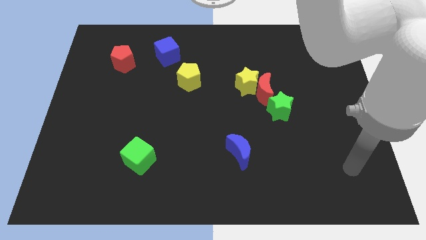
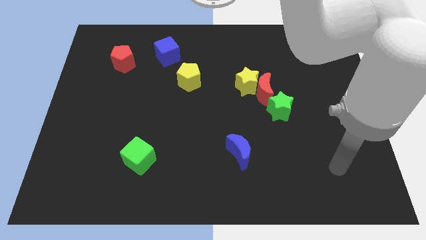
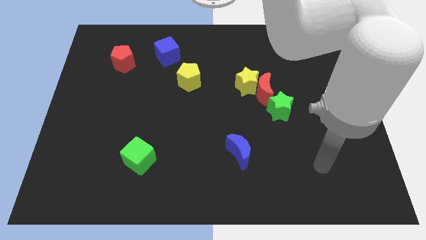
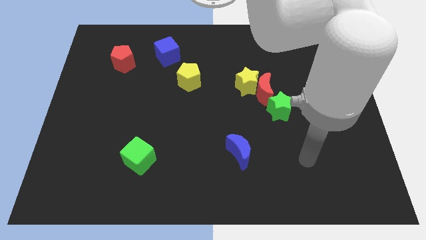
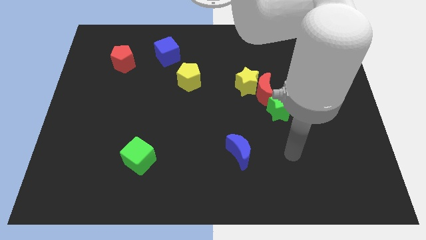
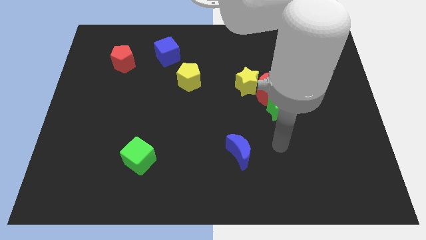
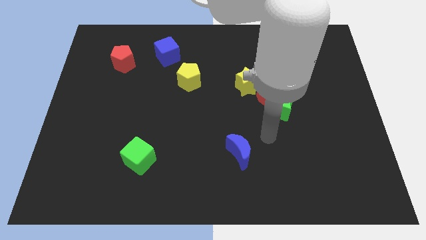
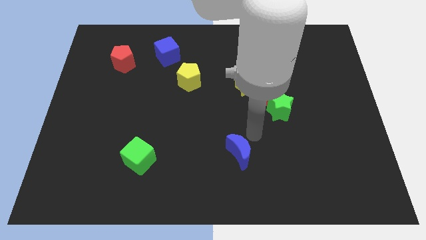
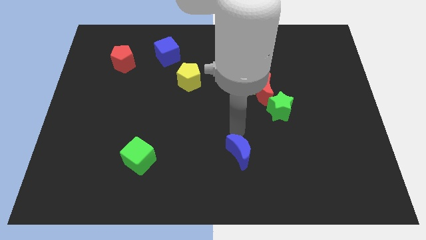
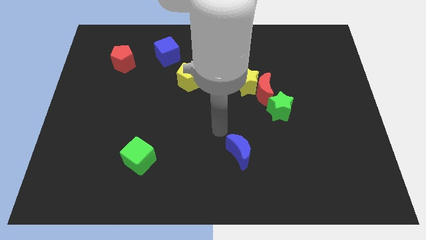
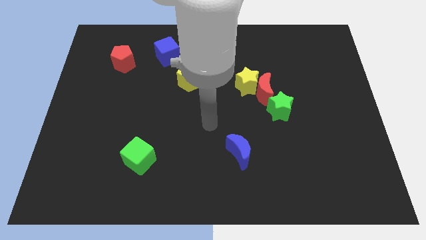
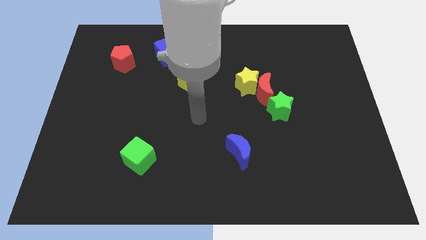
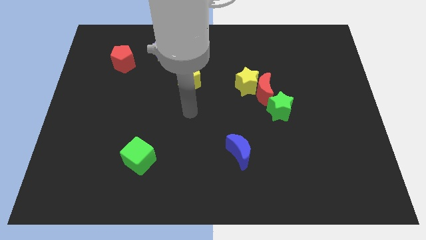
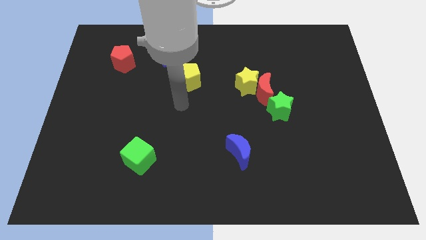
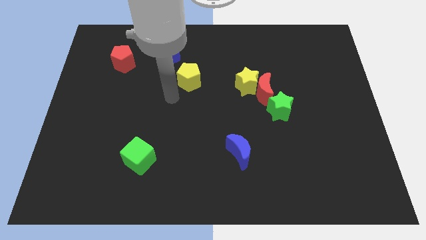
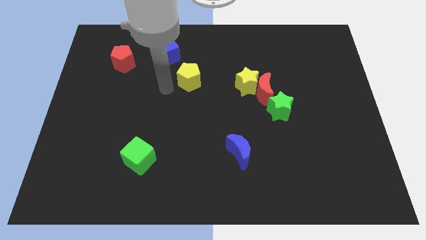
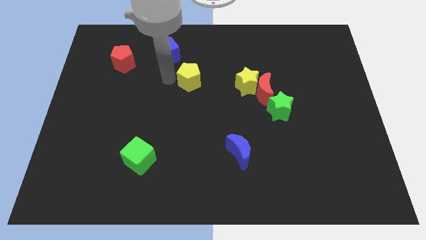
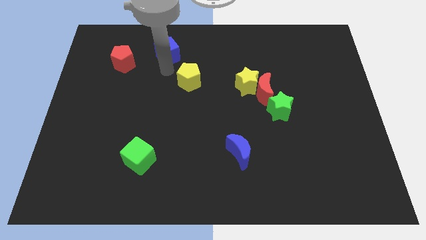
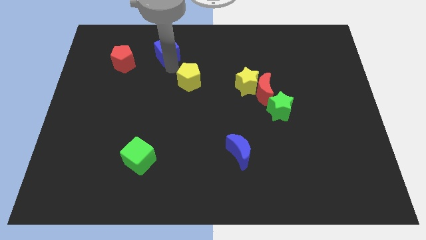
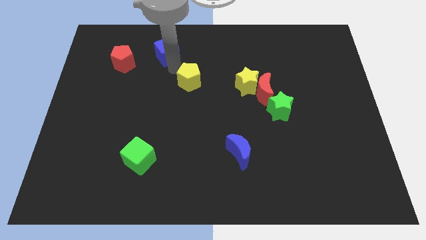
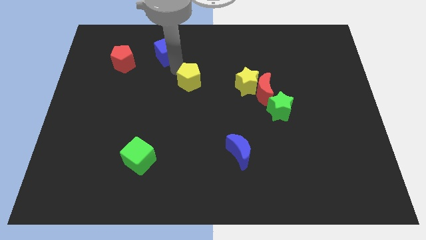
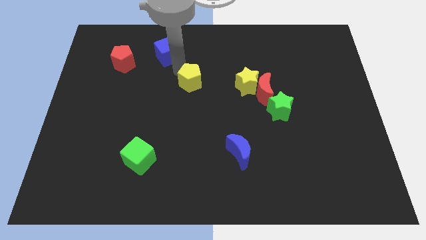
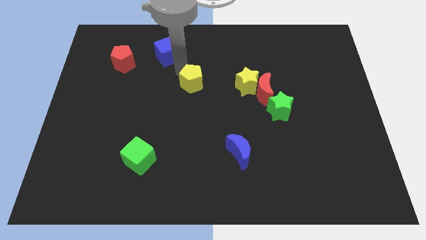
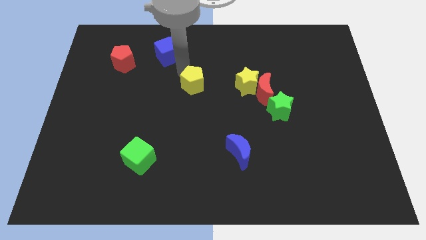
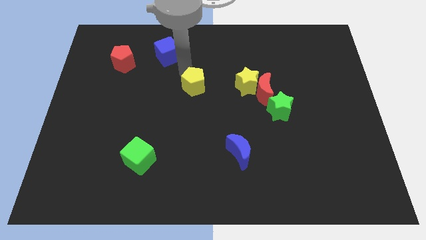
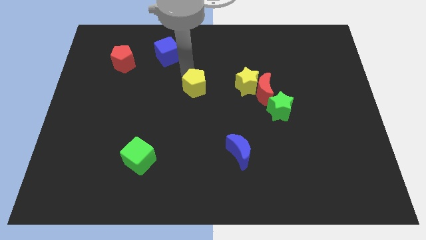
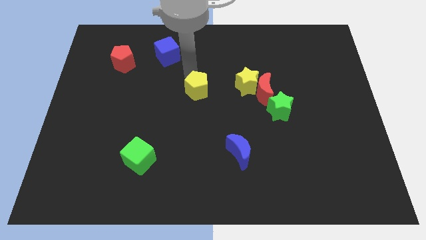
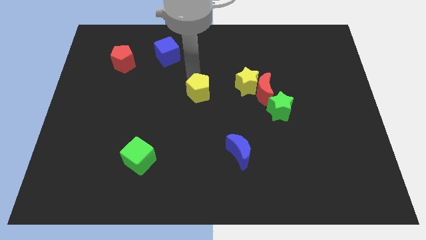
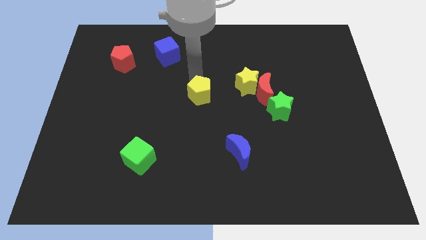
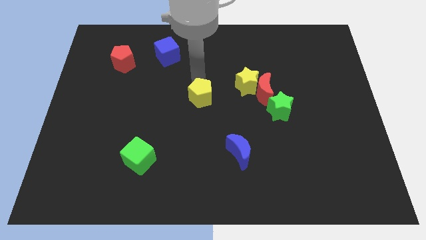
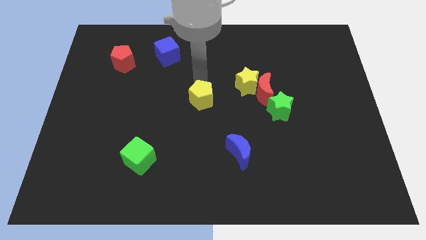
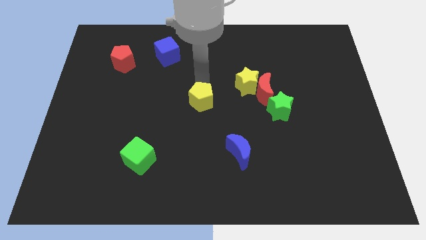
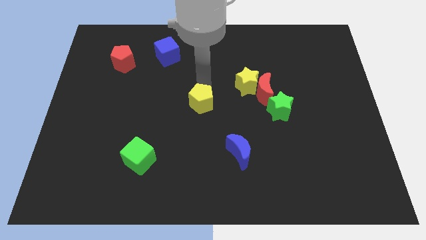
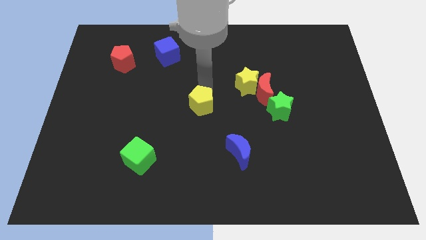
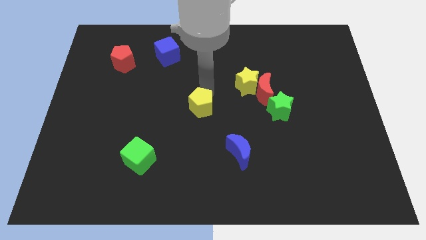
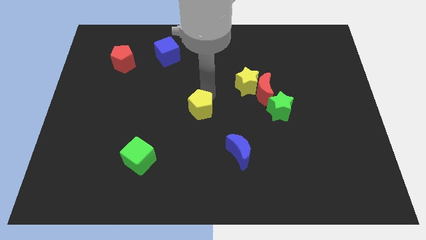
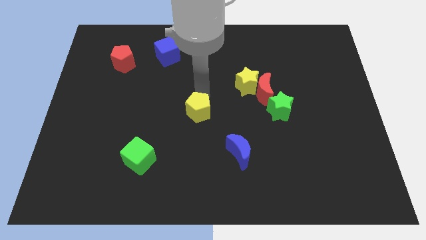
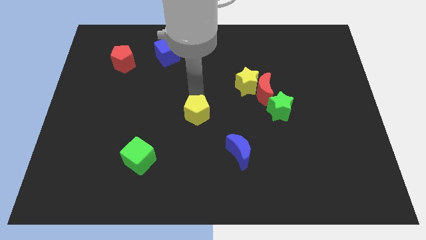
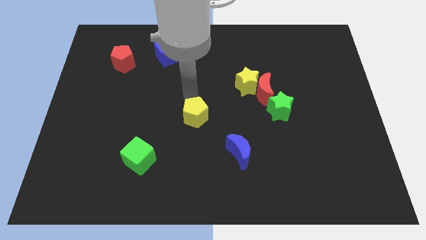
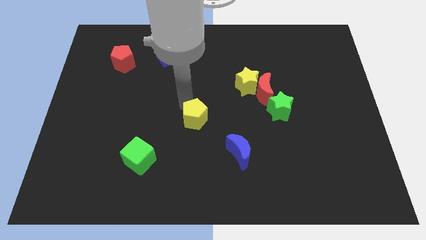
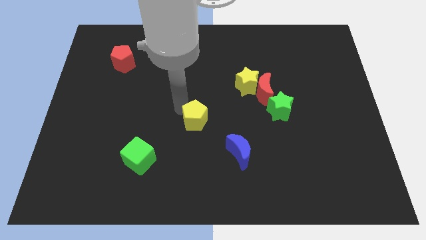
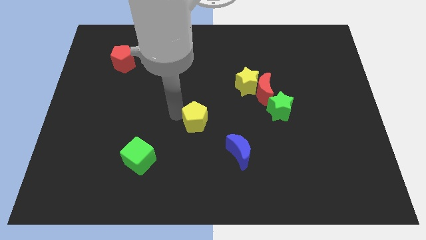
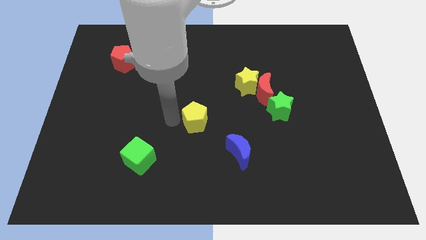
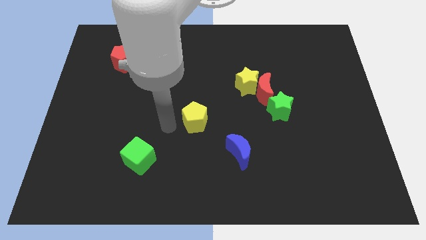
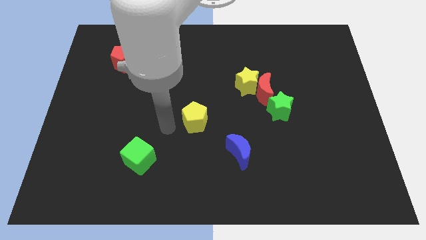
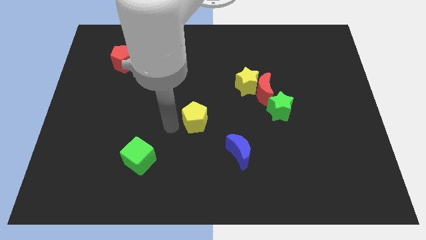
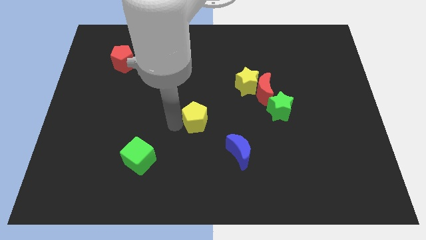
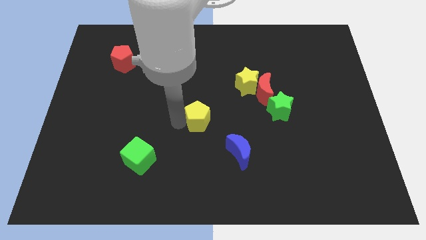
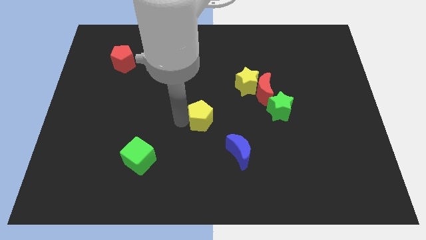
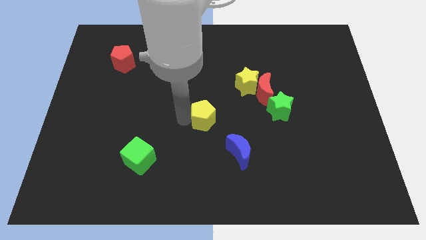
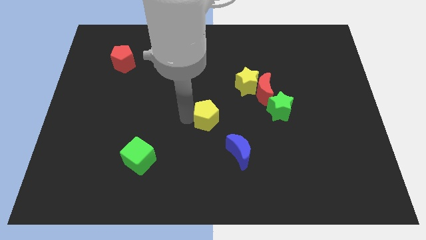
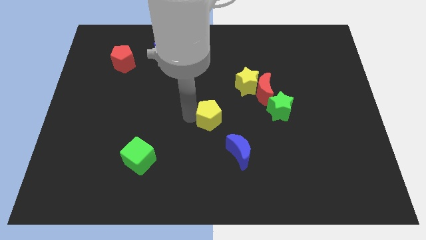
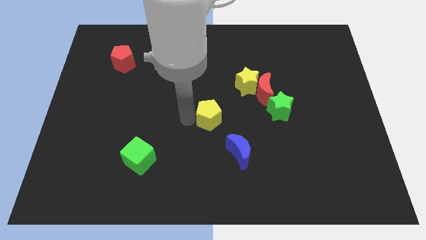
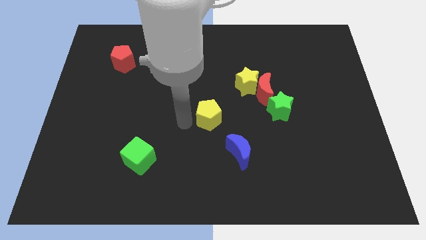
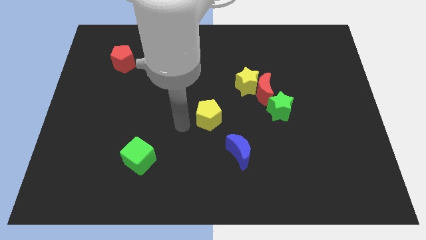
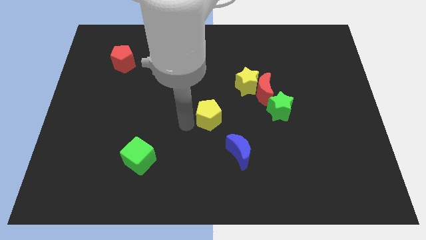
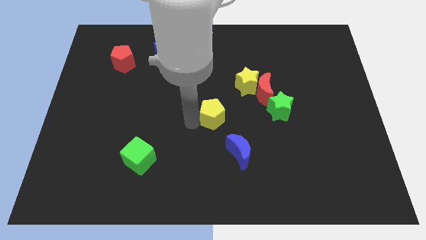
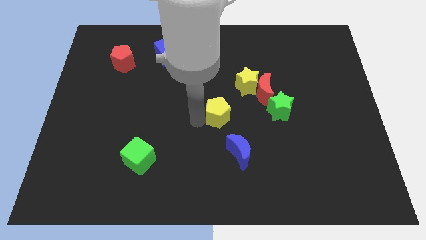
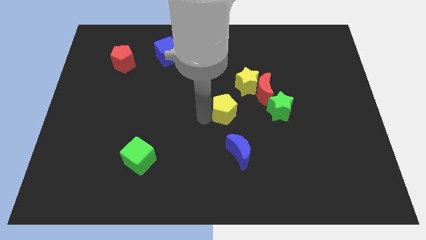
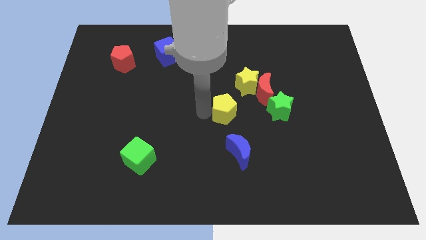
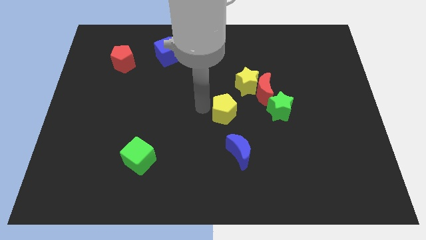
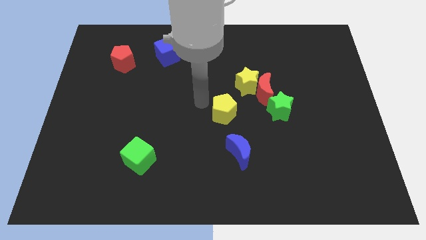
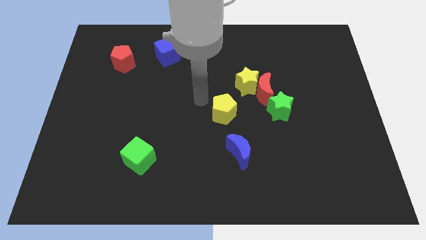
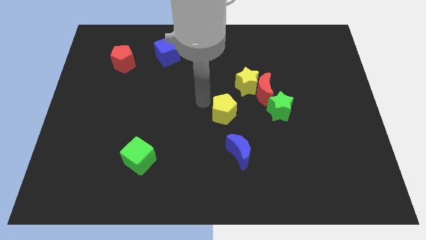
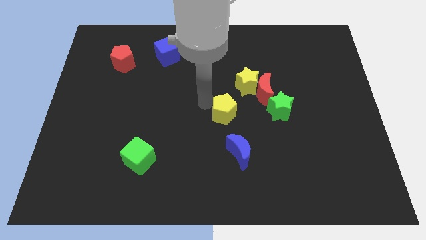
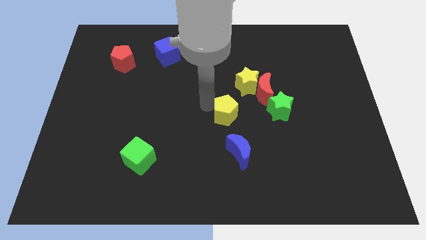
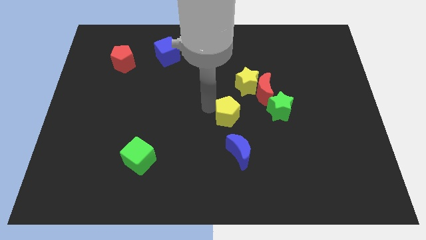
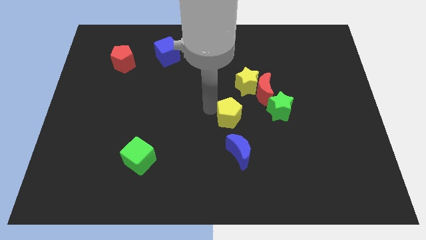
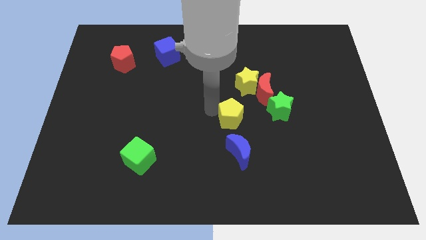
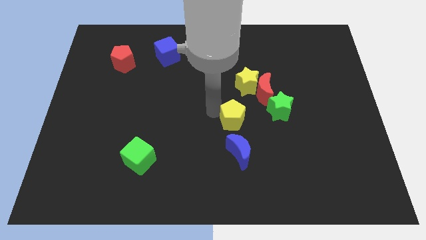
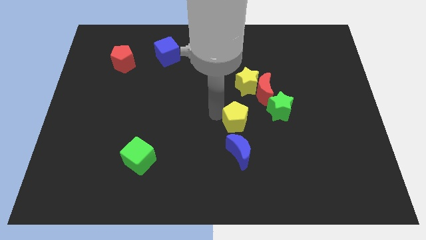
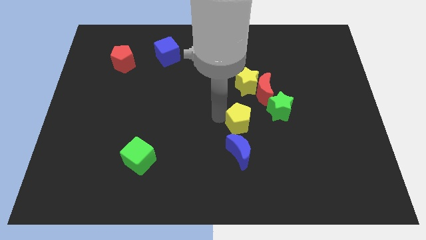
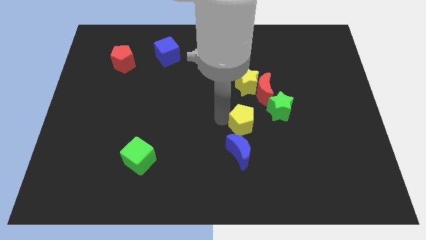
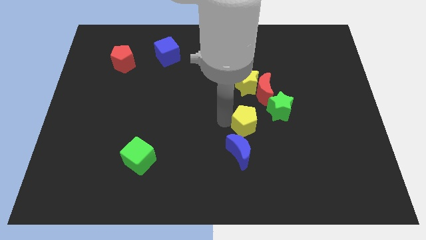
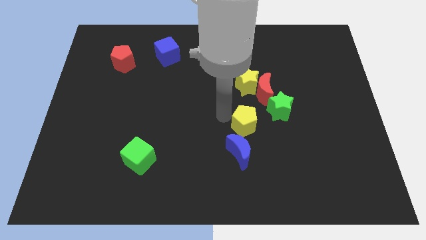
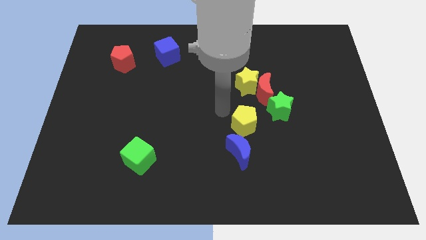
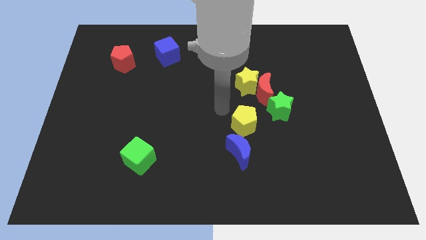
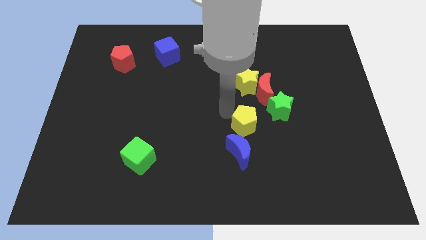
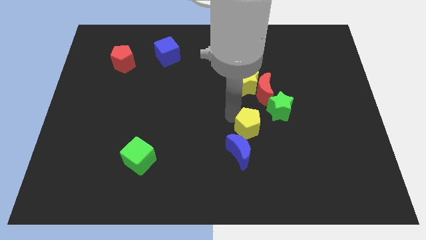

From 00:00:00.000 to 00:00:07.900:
move the yellow pentagon down and right

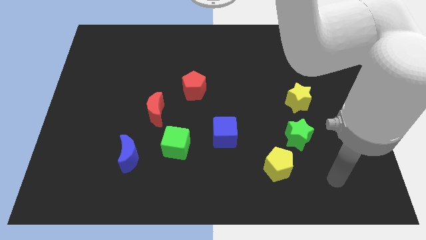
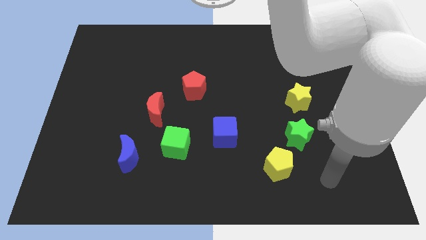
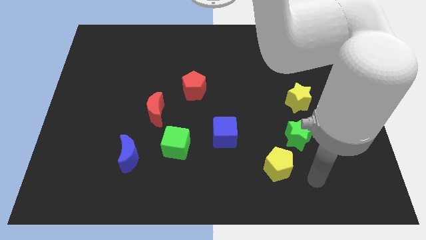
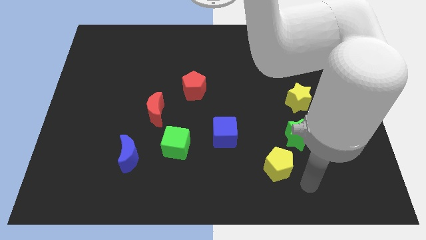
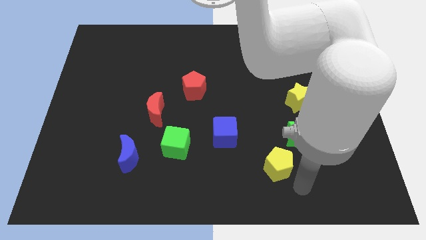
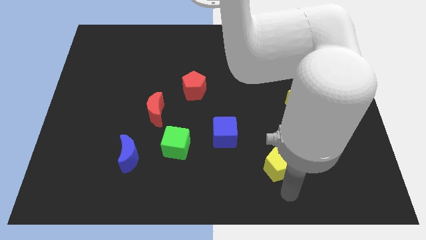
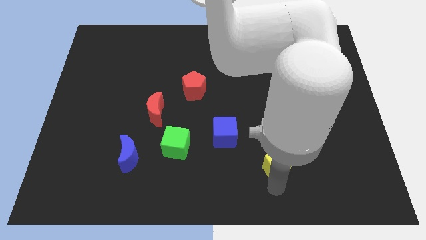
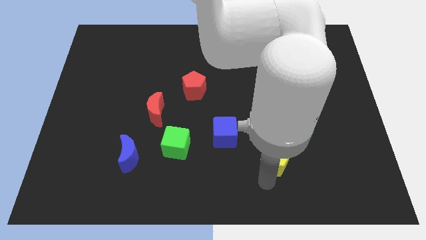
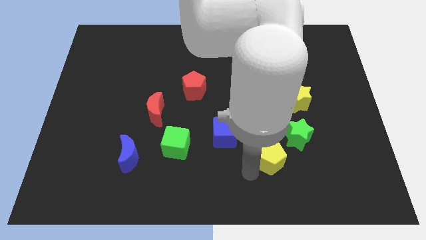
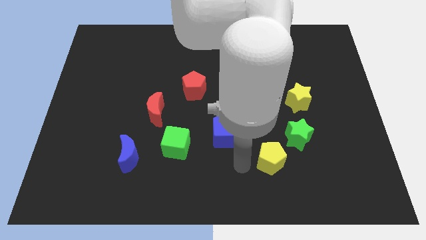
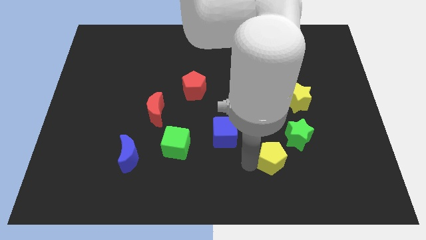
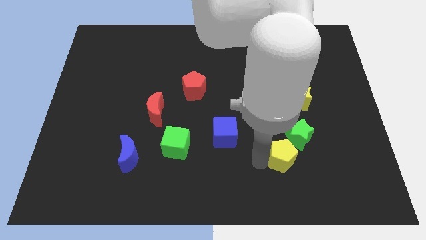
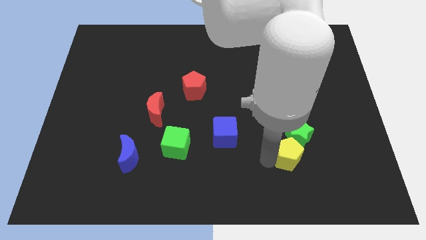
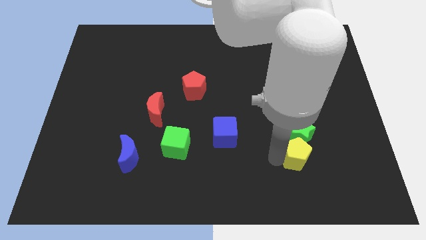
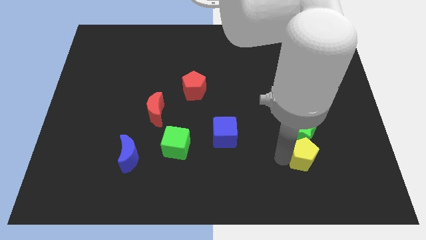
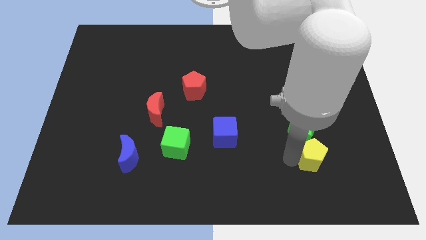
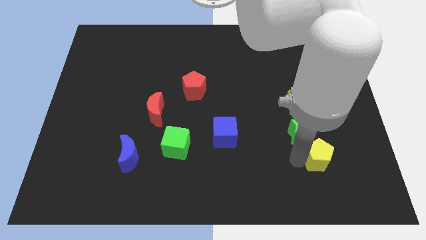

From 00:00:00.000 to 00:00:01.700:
slightly slide the yellow pentagon diagonally upwards and right
